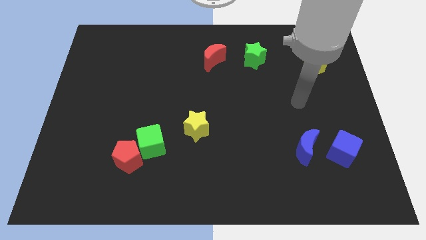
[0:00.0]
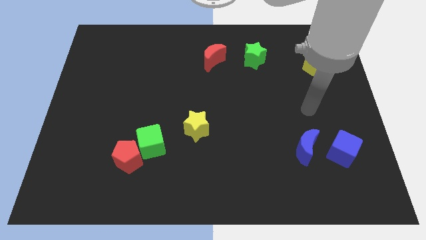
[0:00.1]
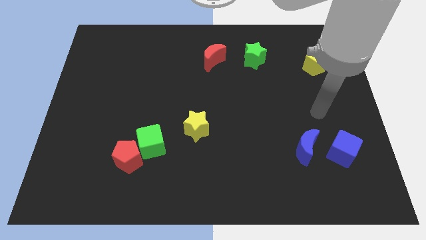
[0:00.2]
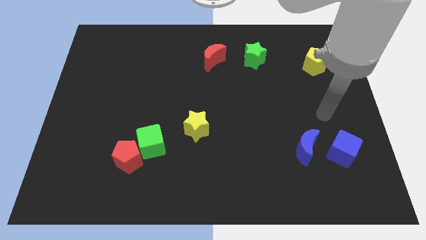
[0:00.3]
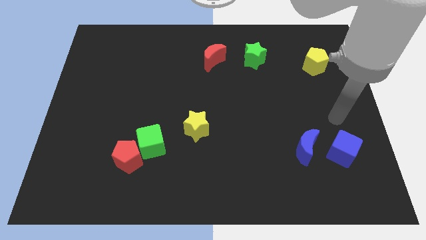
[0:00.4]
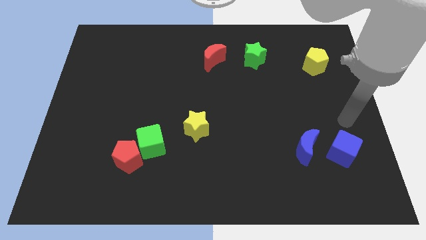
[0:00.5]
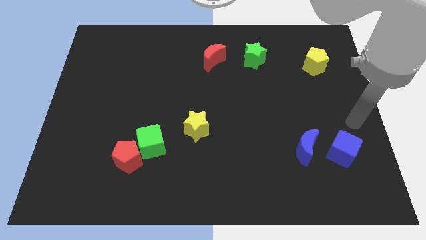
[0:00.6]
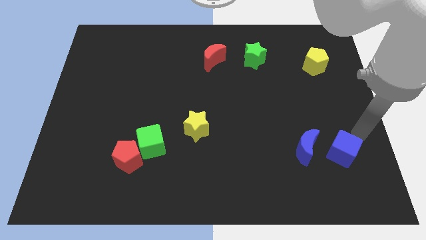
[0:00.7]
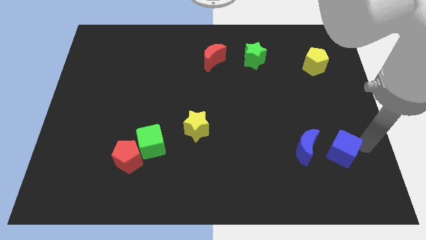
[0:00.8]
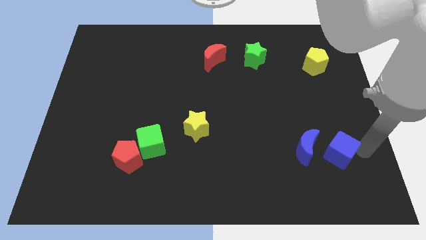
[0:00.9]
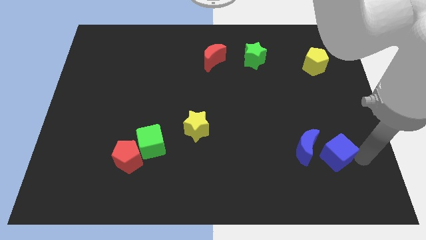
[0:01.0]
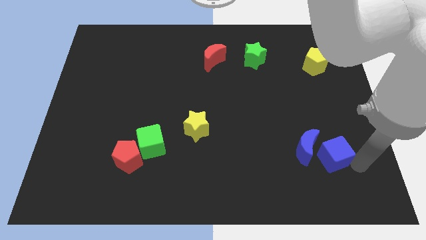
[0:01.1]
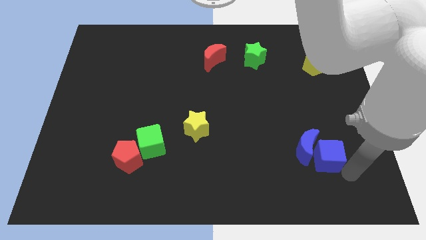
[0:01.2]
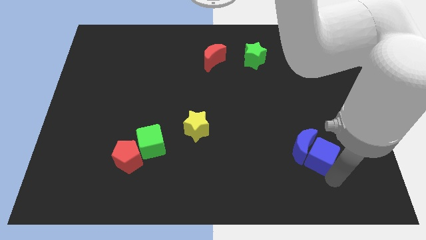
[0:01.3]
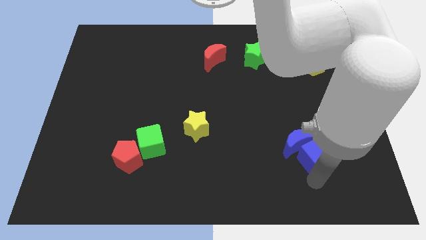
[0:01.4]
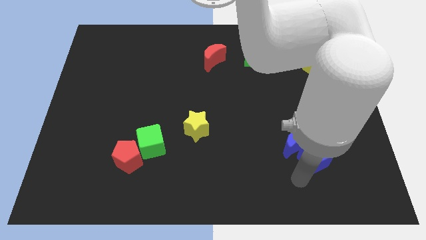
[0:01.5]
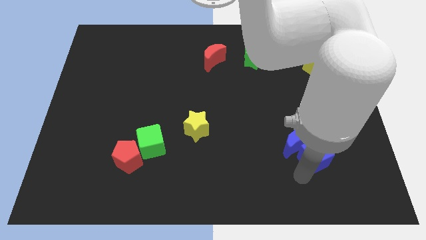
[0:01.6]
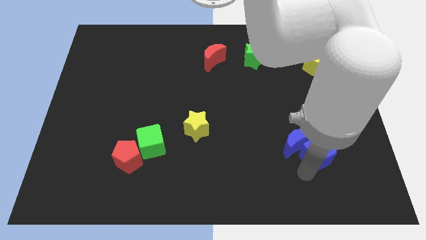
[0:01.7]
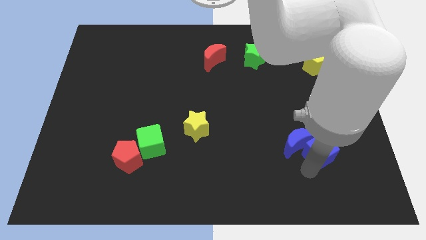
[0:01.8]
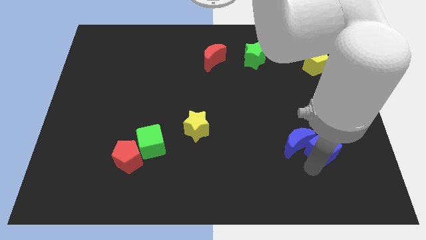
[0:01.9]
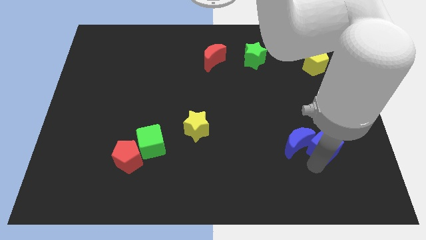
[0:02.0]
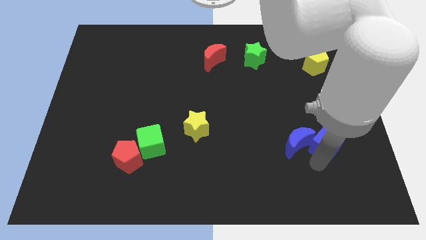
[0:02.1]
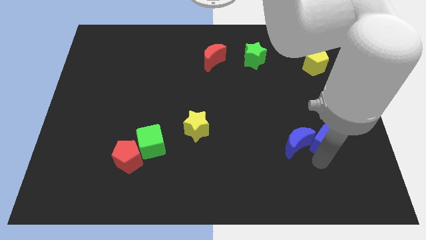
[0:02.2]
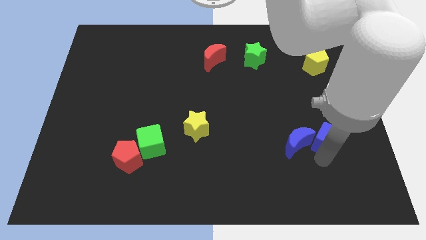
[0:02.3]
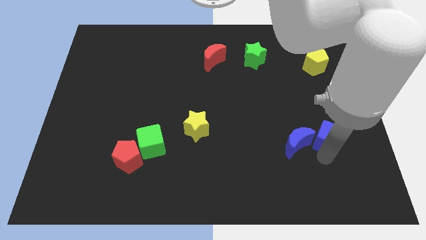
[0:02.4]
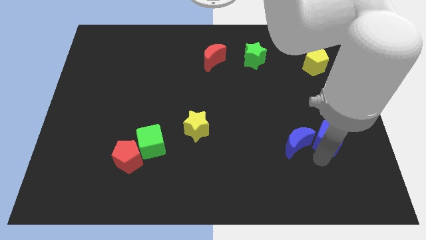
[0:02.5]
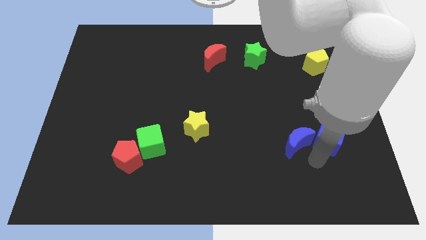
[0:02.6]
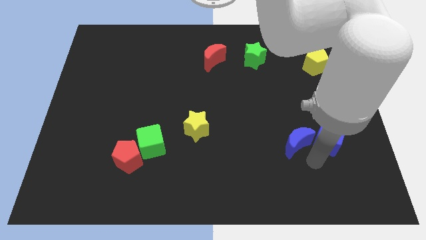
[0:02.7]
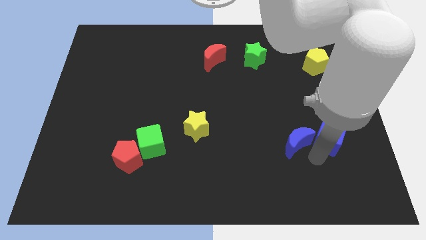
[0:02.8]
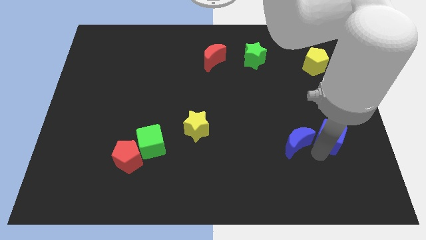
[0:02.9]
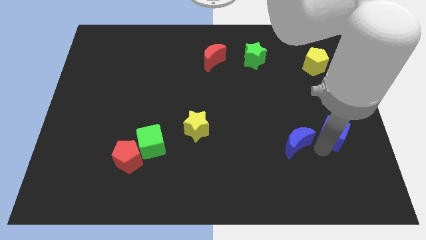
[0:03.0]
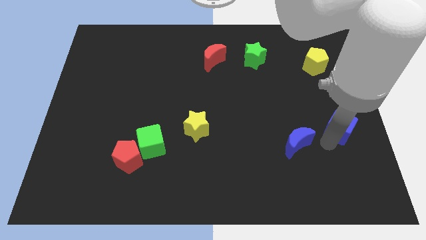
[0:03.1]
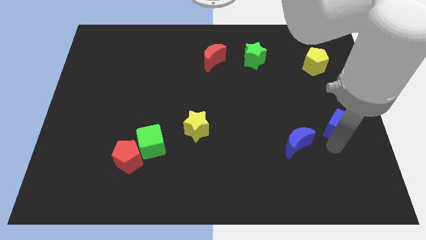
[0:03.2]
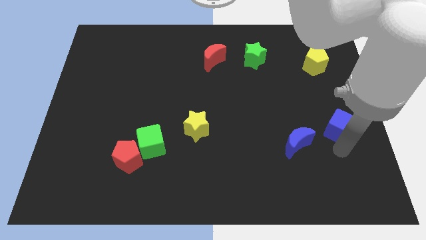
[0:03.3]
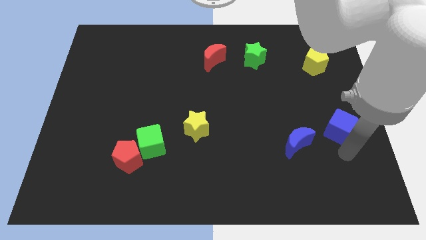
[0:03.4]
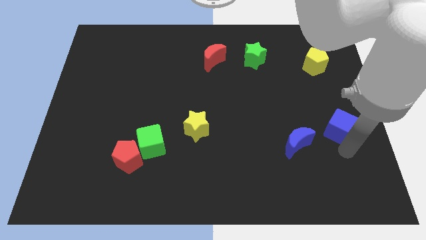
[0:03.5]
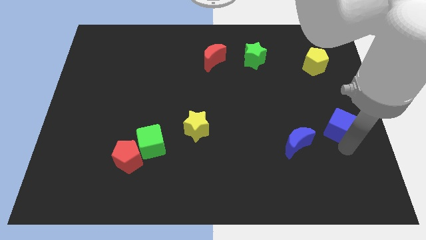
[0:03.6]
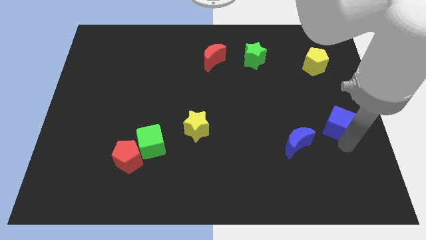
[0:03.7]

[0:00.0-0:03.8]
push the blue cube upwards a little bit

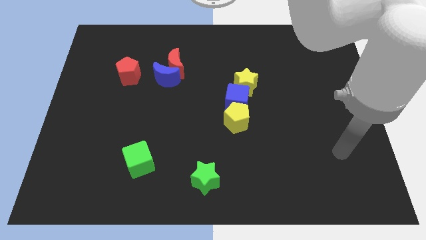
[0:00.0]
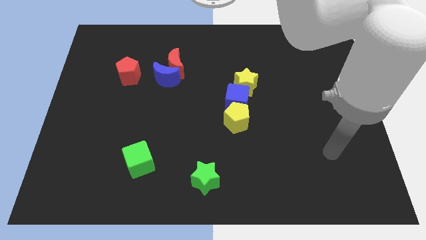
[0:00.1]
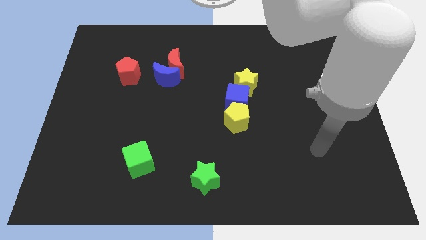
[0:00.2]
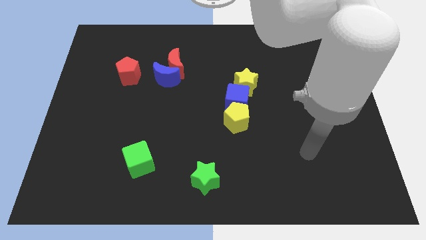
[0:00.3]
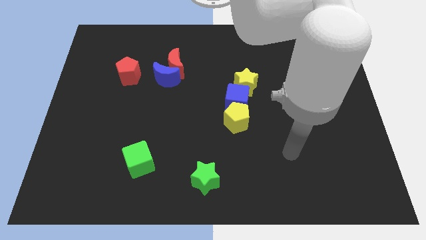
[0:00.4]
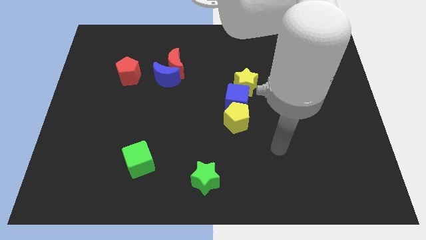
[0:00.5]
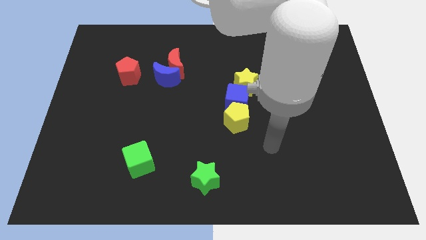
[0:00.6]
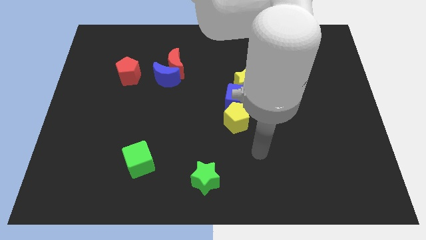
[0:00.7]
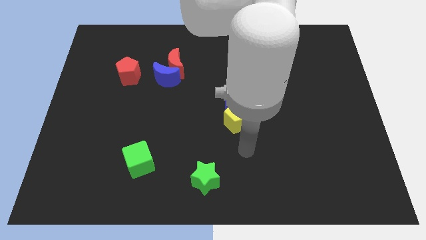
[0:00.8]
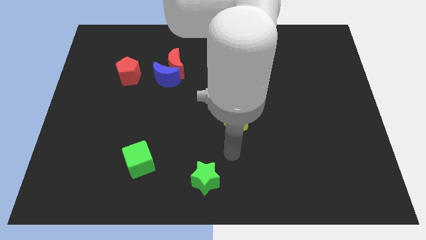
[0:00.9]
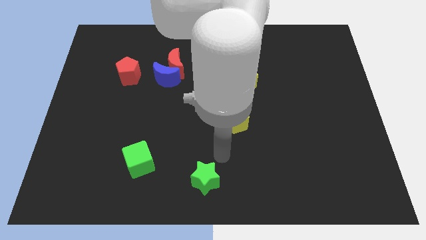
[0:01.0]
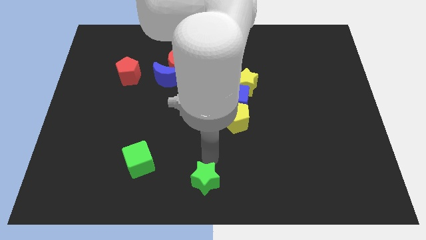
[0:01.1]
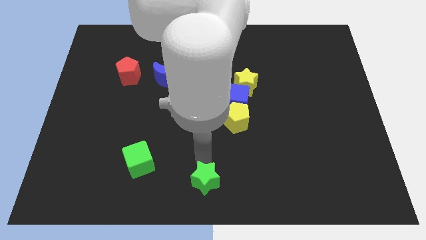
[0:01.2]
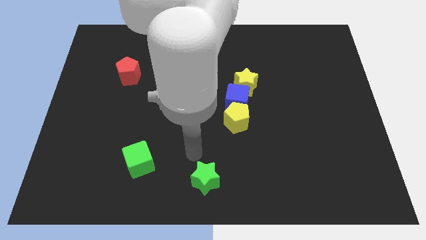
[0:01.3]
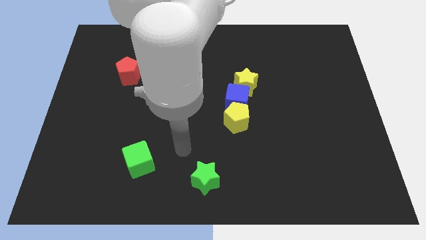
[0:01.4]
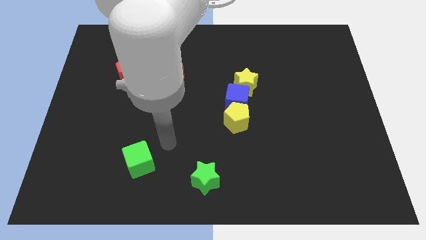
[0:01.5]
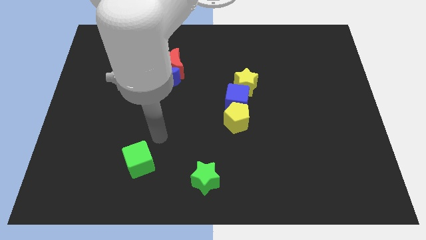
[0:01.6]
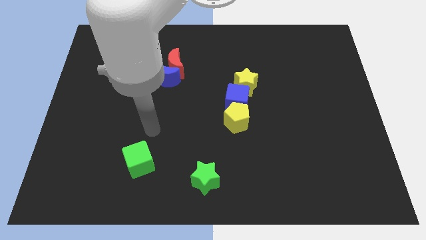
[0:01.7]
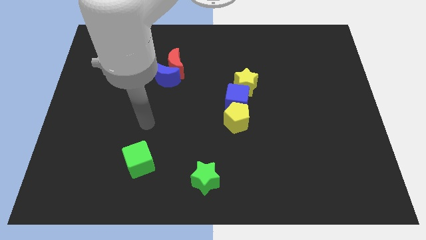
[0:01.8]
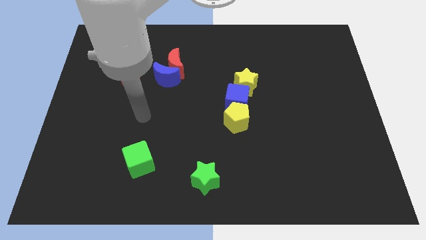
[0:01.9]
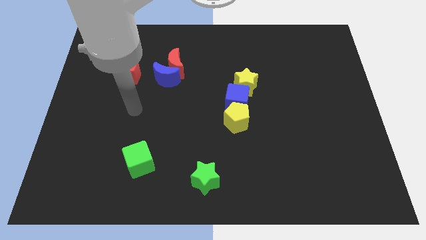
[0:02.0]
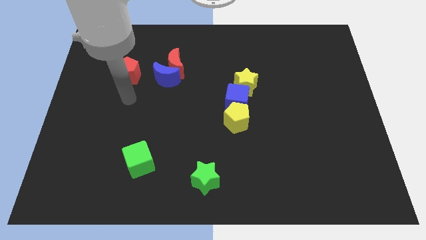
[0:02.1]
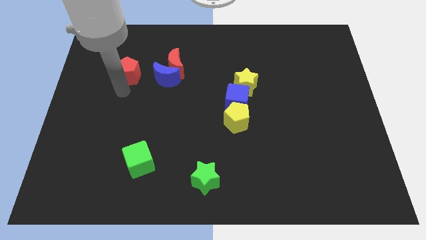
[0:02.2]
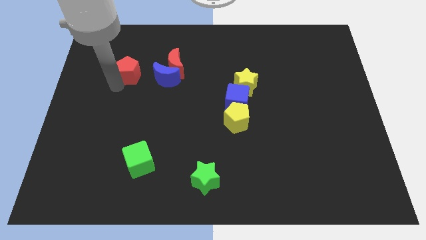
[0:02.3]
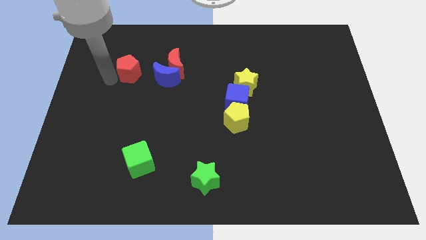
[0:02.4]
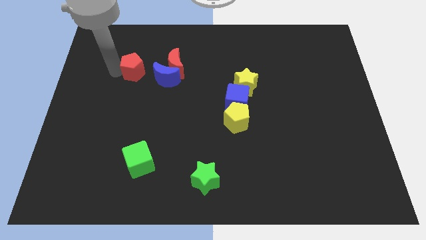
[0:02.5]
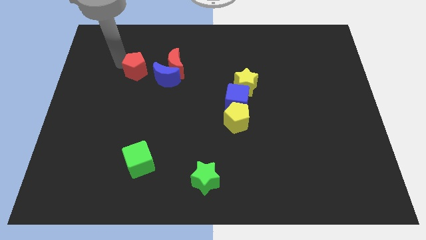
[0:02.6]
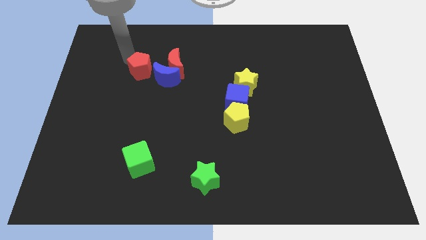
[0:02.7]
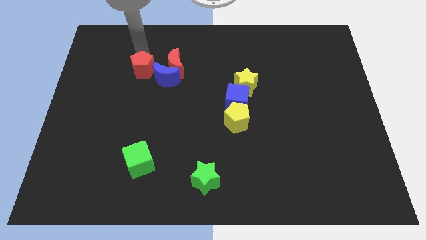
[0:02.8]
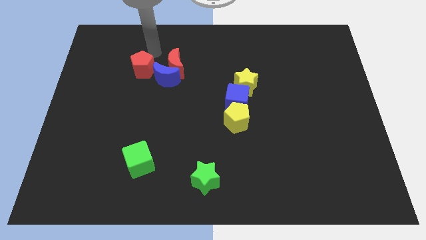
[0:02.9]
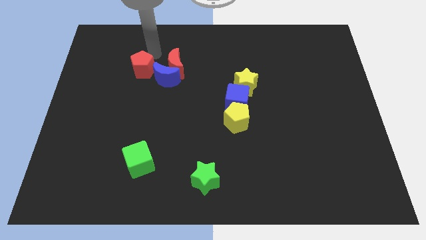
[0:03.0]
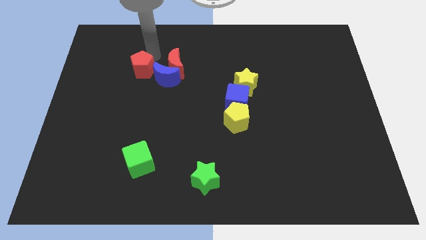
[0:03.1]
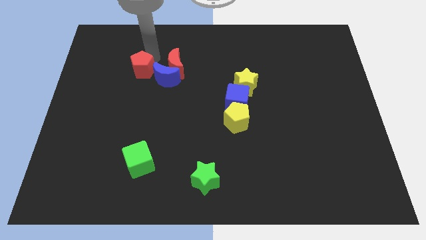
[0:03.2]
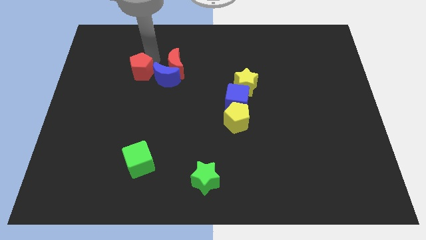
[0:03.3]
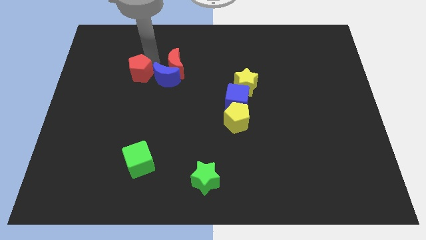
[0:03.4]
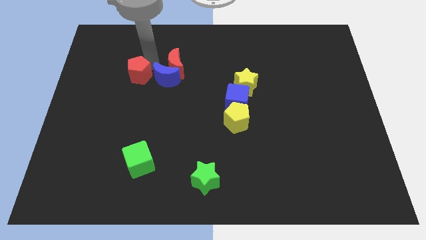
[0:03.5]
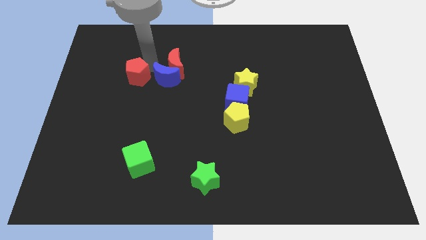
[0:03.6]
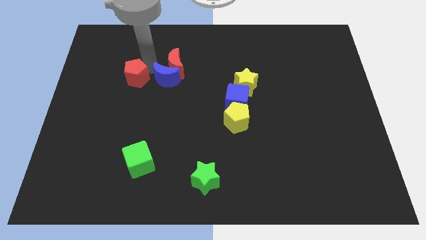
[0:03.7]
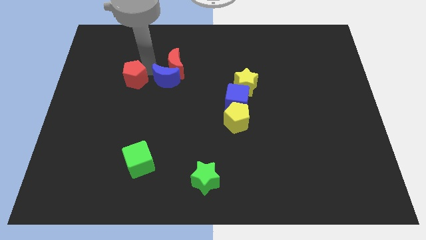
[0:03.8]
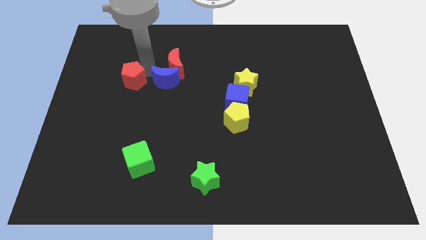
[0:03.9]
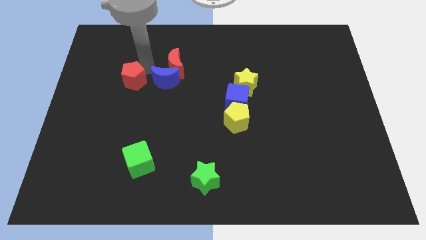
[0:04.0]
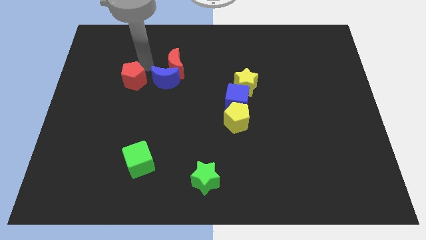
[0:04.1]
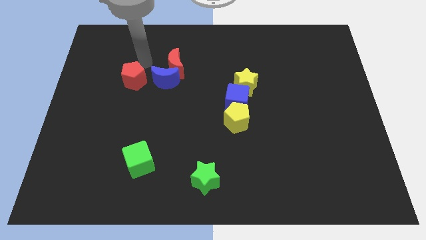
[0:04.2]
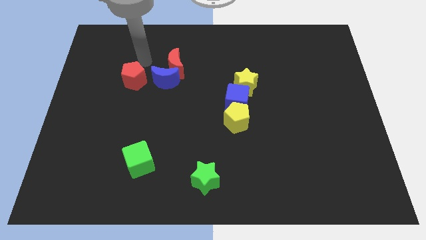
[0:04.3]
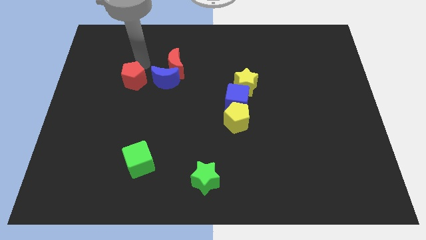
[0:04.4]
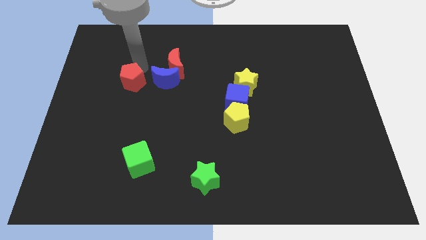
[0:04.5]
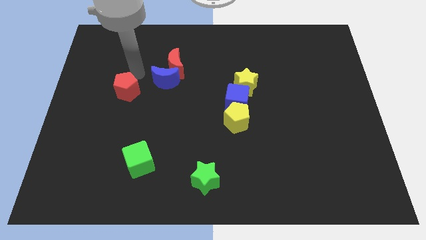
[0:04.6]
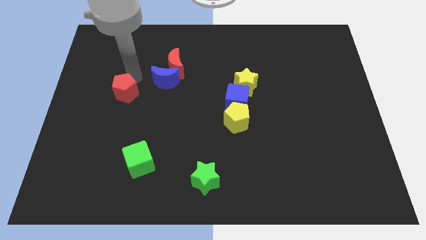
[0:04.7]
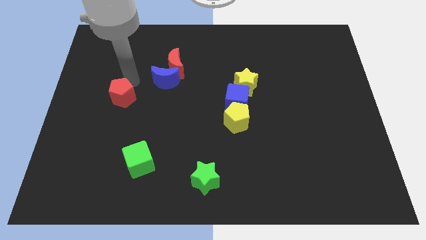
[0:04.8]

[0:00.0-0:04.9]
slightly move the red pentagon down
